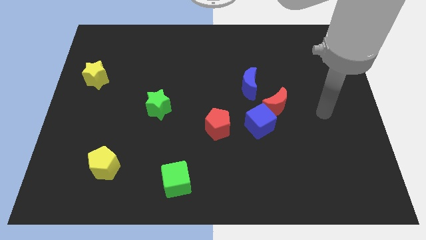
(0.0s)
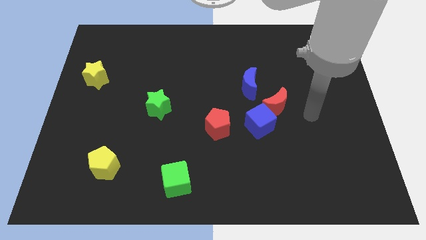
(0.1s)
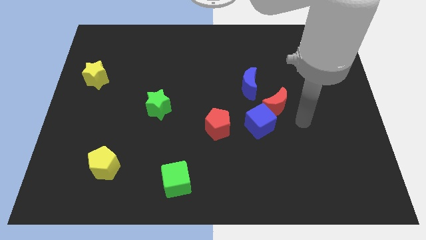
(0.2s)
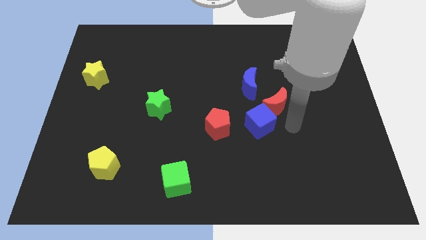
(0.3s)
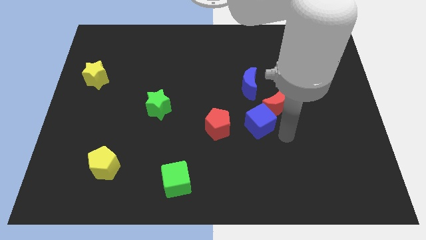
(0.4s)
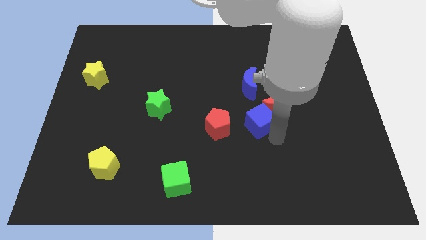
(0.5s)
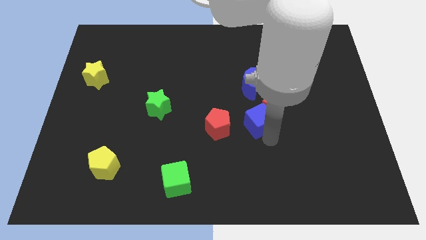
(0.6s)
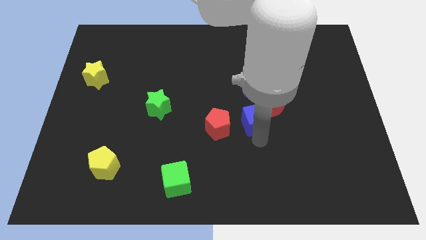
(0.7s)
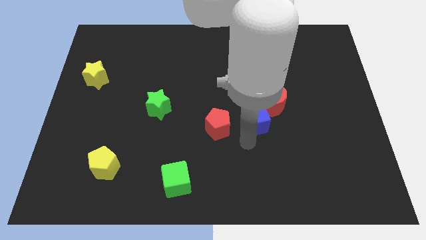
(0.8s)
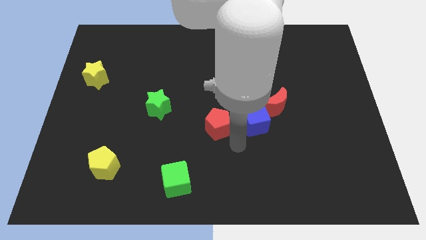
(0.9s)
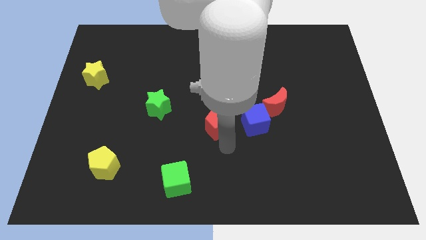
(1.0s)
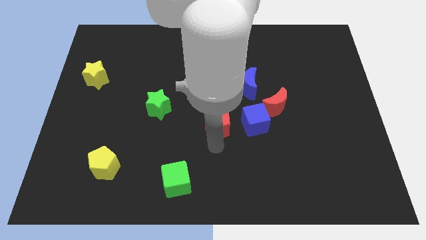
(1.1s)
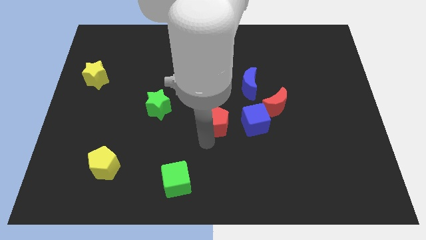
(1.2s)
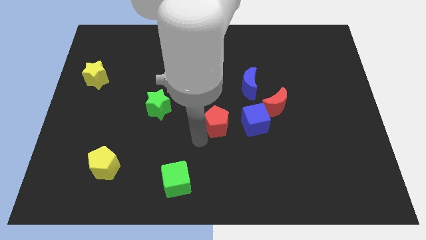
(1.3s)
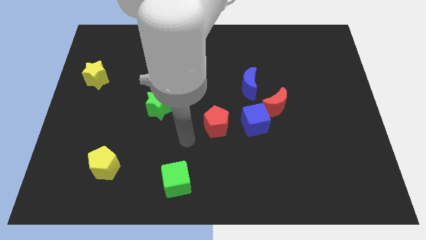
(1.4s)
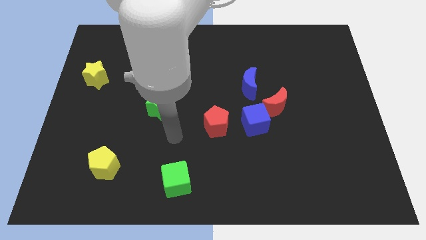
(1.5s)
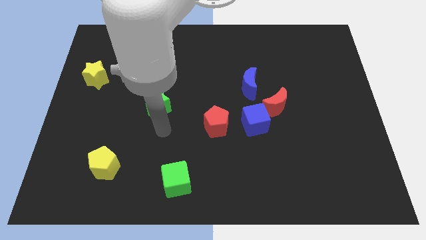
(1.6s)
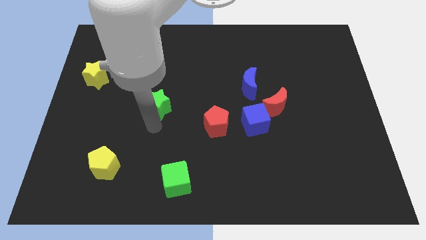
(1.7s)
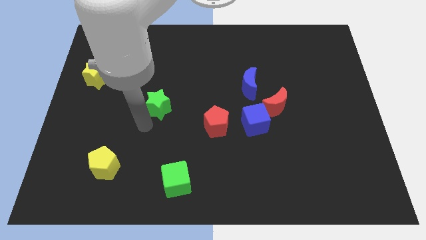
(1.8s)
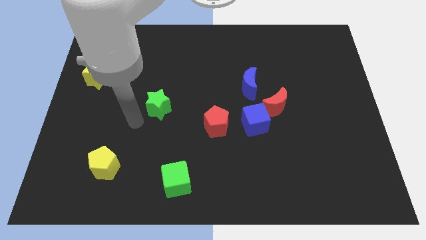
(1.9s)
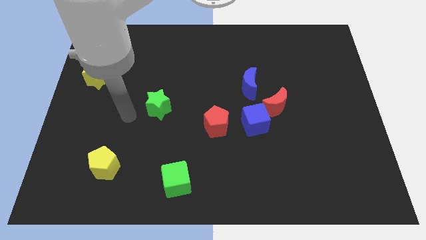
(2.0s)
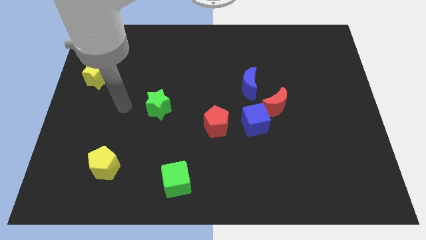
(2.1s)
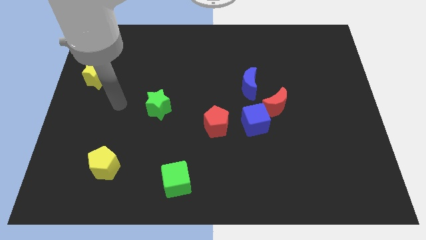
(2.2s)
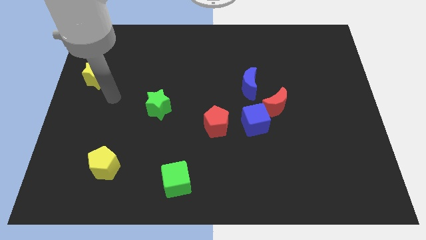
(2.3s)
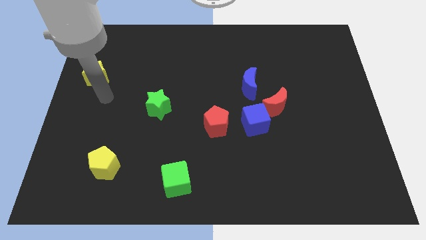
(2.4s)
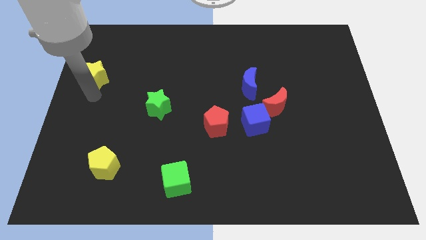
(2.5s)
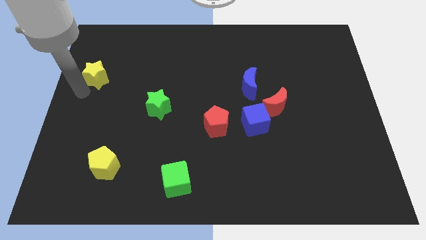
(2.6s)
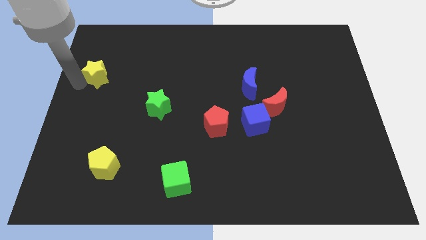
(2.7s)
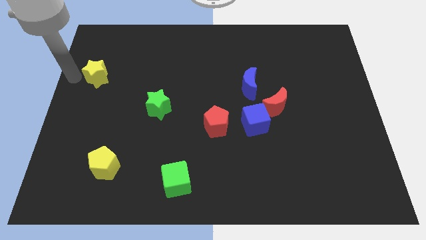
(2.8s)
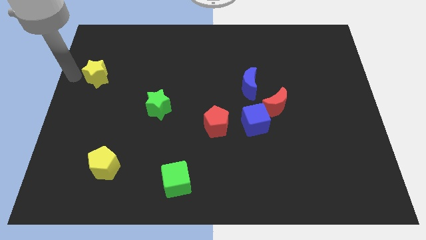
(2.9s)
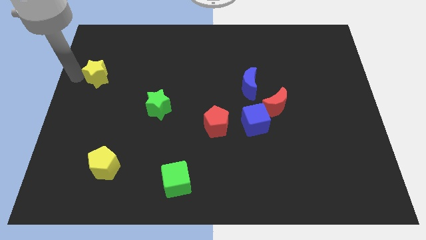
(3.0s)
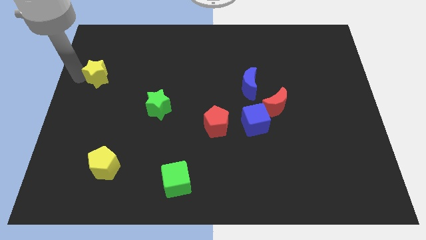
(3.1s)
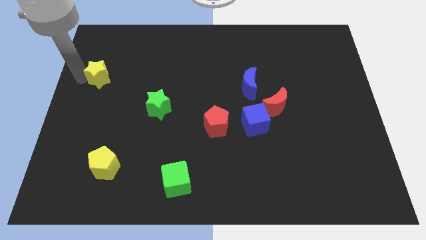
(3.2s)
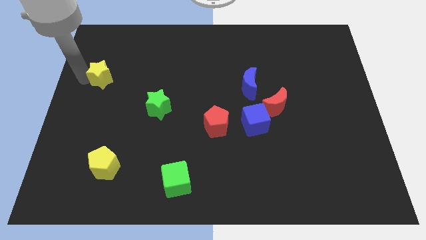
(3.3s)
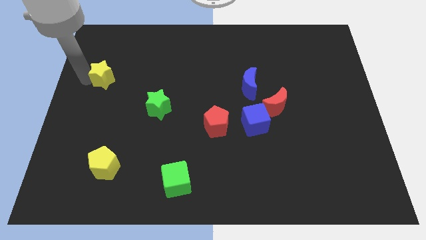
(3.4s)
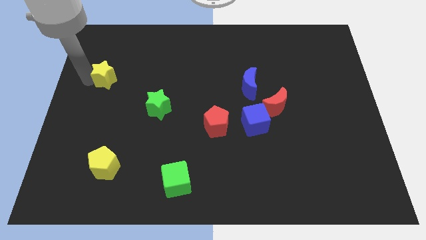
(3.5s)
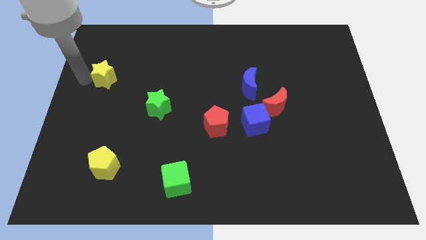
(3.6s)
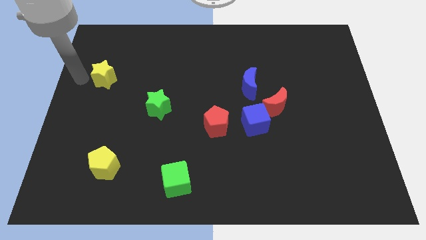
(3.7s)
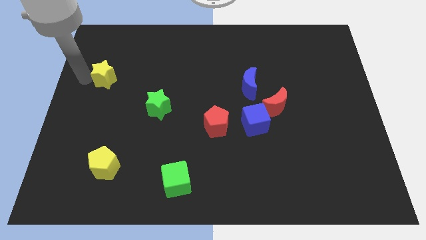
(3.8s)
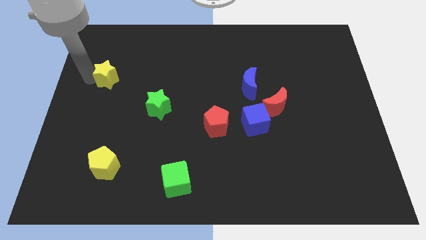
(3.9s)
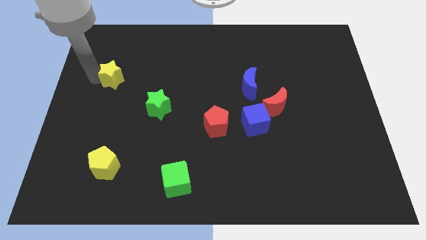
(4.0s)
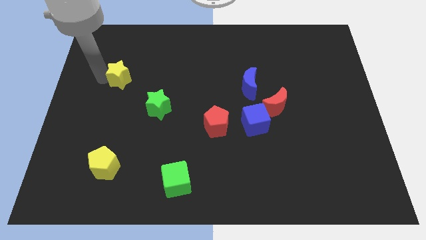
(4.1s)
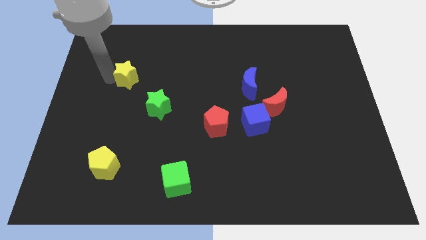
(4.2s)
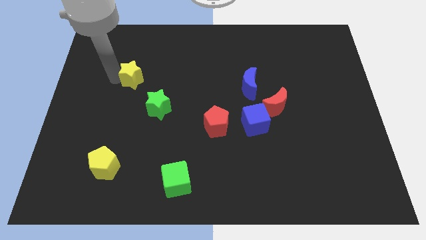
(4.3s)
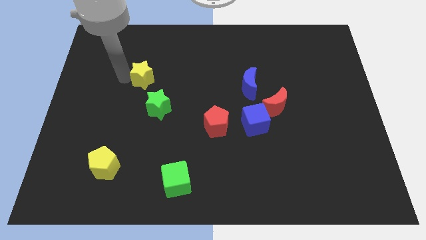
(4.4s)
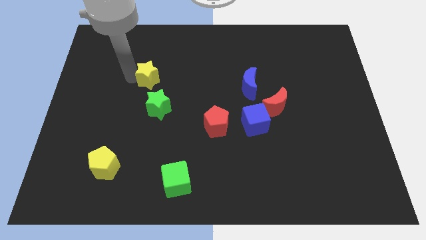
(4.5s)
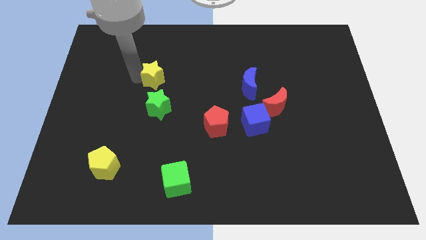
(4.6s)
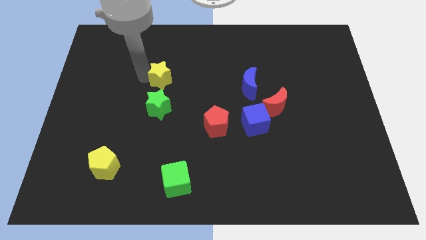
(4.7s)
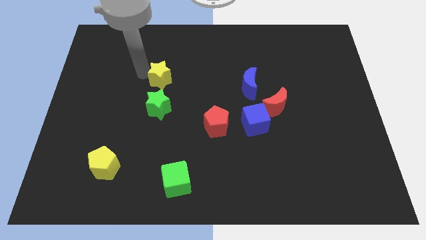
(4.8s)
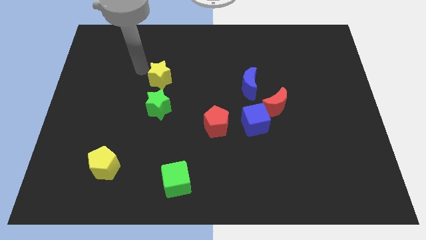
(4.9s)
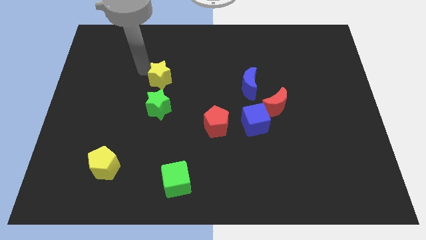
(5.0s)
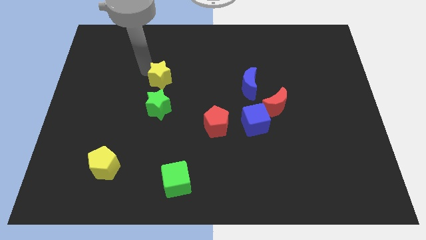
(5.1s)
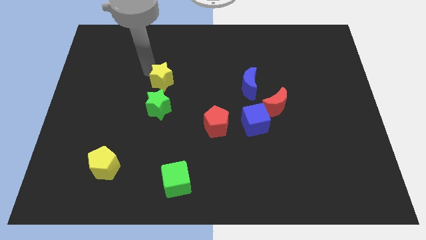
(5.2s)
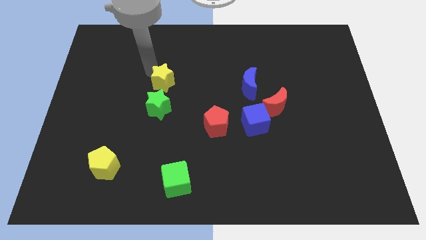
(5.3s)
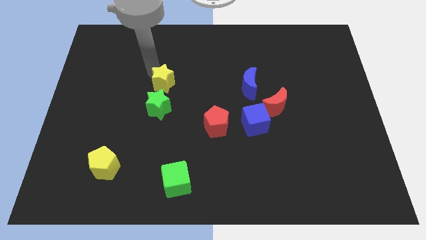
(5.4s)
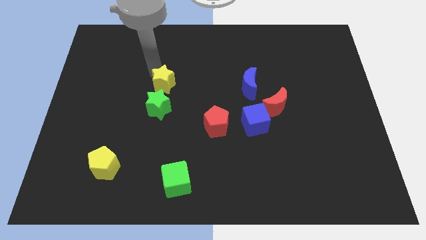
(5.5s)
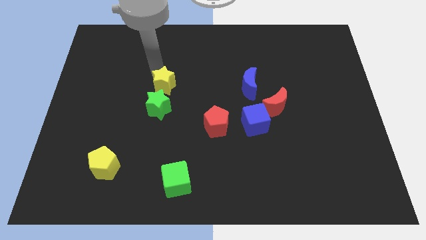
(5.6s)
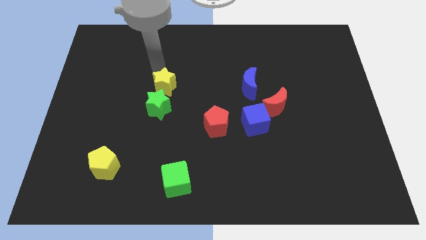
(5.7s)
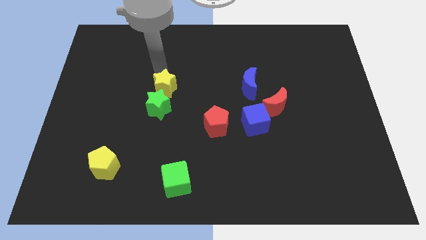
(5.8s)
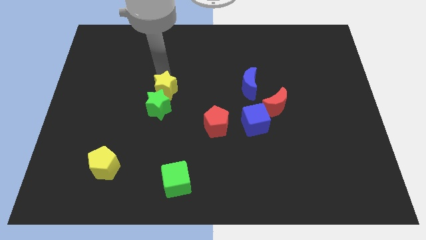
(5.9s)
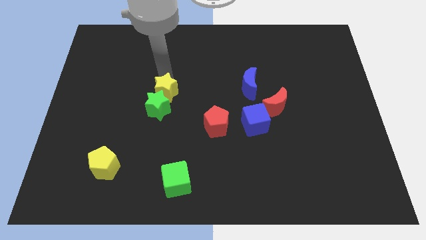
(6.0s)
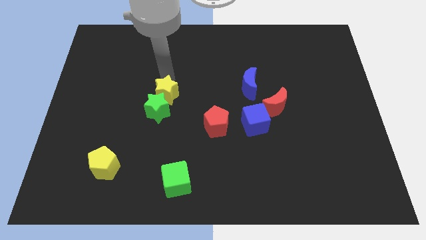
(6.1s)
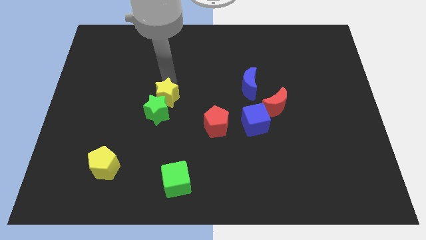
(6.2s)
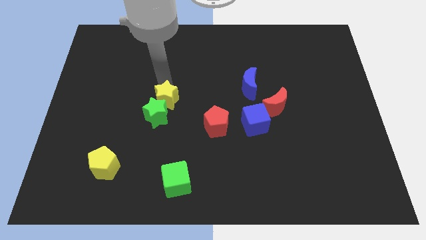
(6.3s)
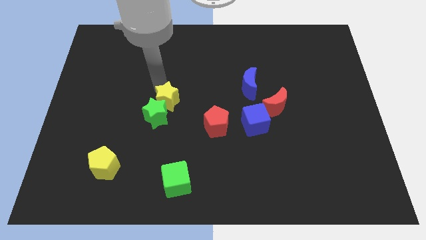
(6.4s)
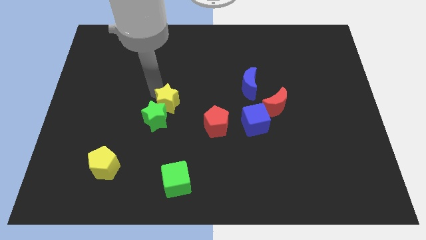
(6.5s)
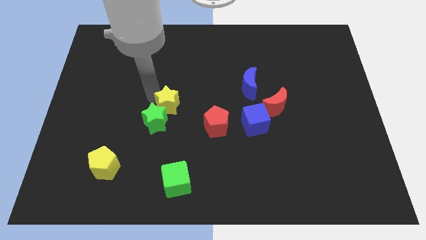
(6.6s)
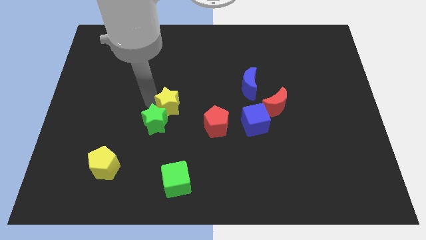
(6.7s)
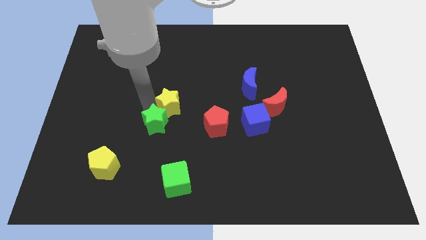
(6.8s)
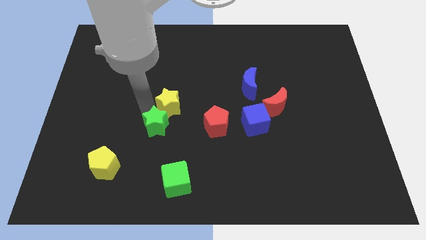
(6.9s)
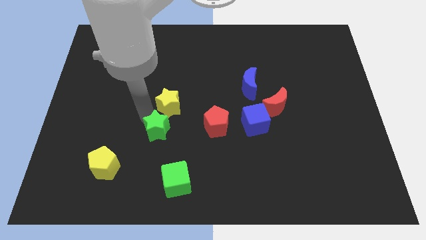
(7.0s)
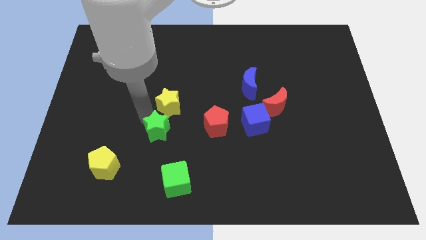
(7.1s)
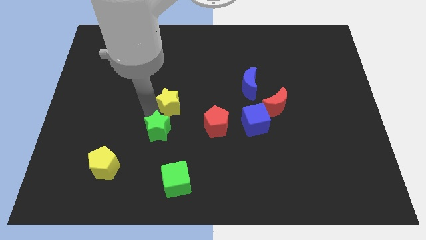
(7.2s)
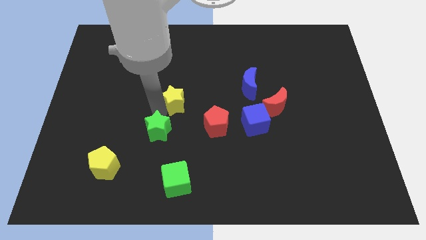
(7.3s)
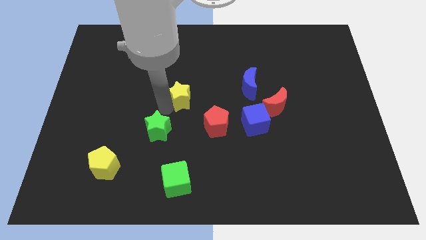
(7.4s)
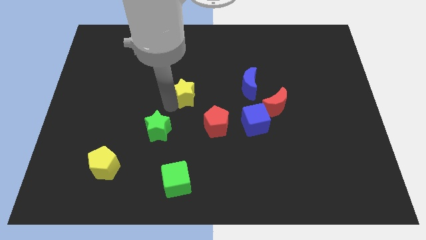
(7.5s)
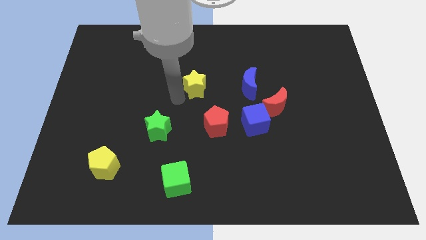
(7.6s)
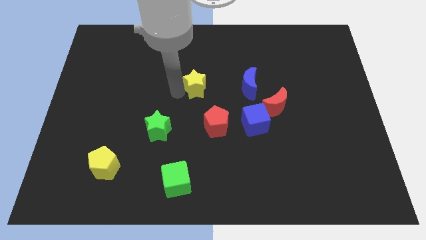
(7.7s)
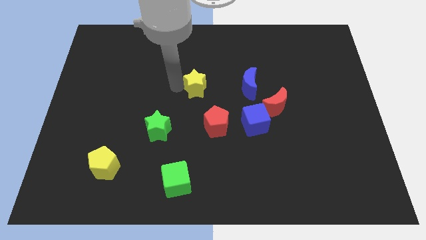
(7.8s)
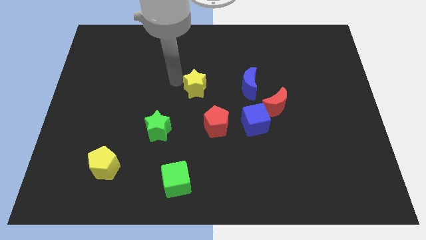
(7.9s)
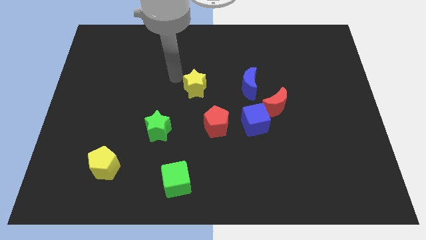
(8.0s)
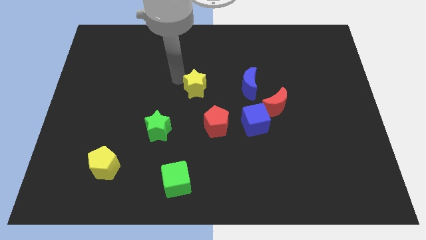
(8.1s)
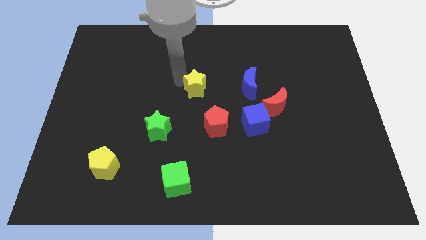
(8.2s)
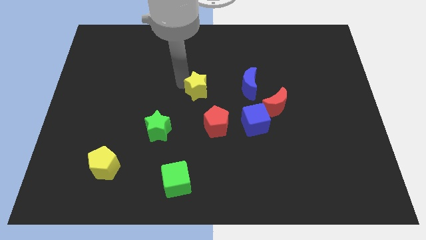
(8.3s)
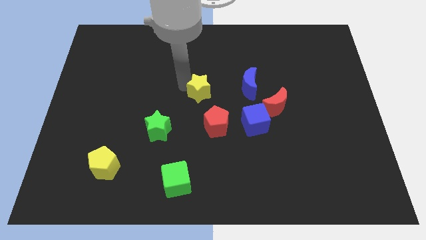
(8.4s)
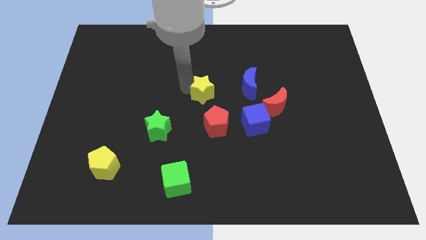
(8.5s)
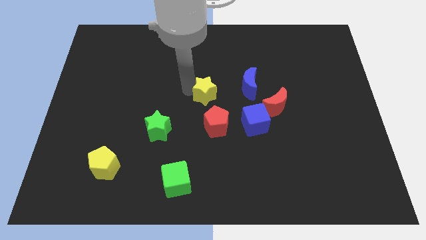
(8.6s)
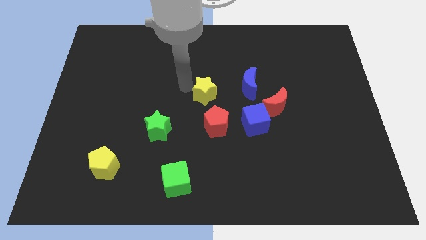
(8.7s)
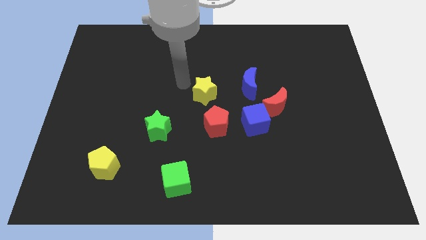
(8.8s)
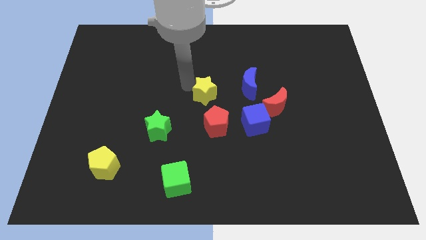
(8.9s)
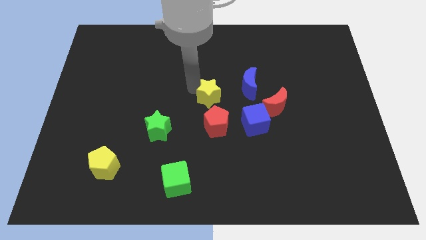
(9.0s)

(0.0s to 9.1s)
put the yellow star to the bottom left of the blue moon
